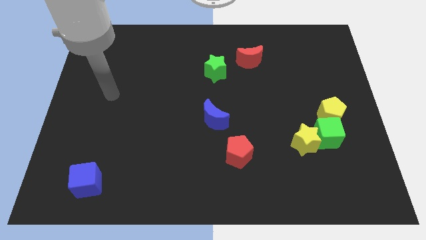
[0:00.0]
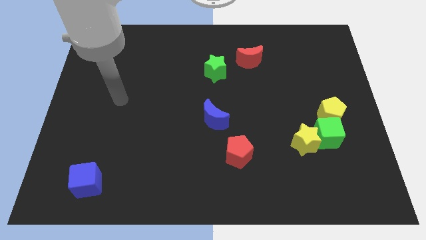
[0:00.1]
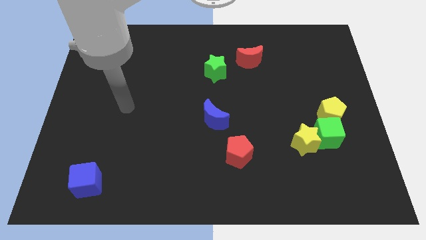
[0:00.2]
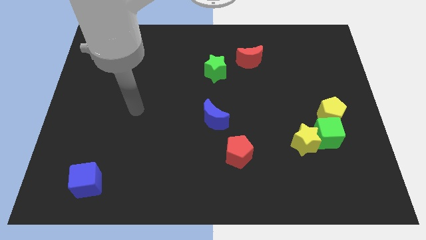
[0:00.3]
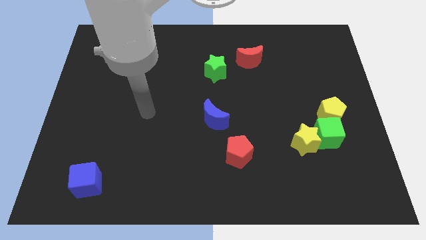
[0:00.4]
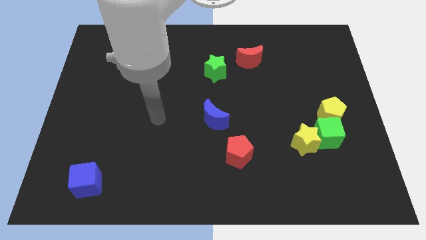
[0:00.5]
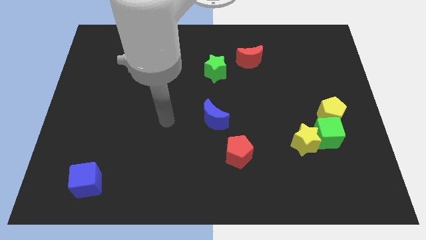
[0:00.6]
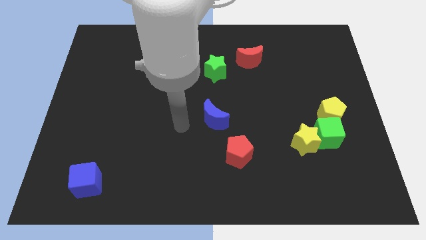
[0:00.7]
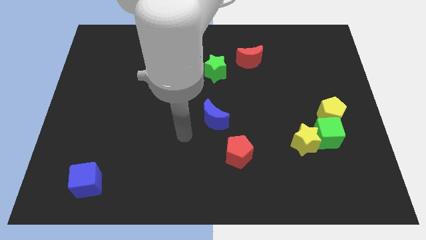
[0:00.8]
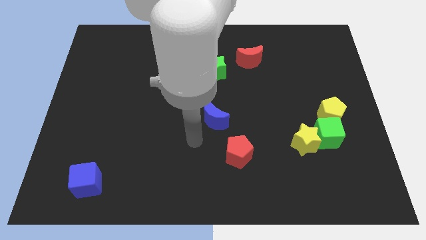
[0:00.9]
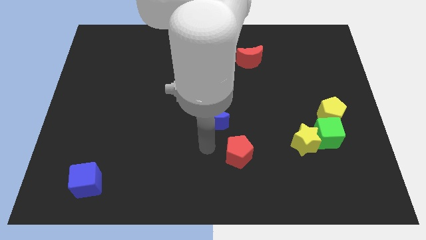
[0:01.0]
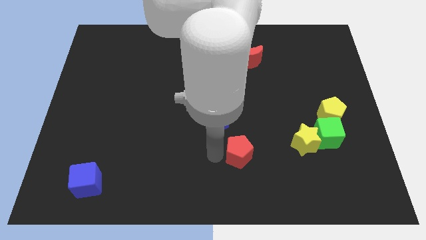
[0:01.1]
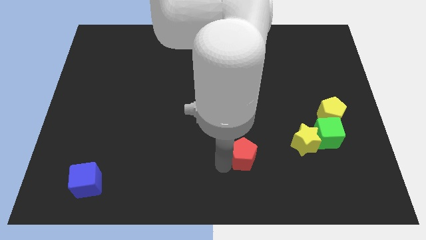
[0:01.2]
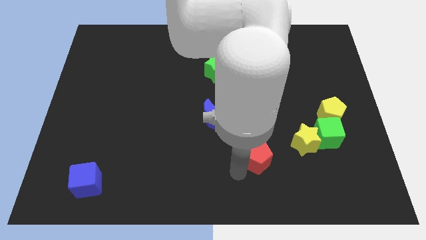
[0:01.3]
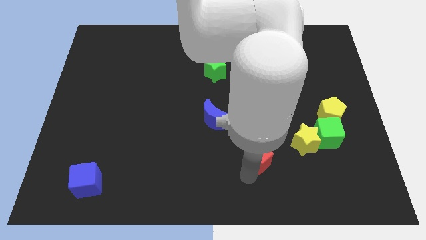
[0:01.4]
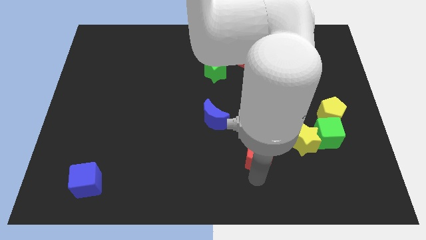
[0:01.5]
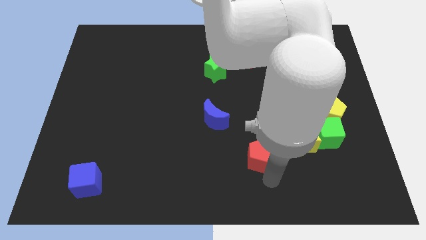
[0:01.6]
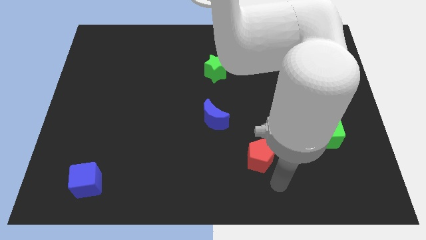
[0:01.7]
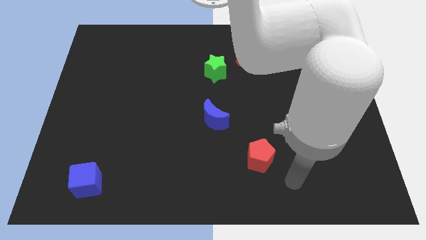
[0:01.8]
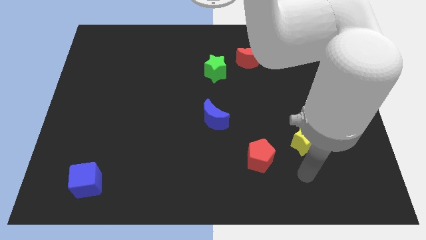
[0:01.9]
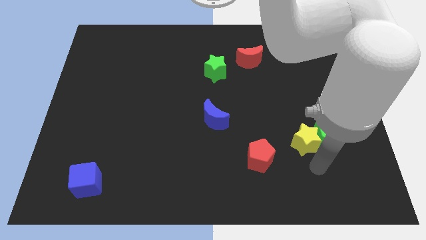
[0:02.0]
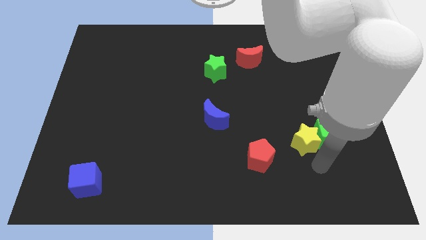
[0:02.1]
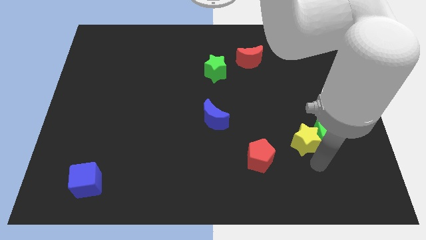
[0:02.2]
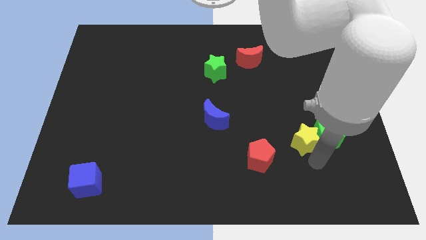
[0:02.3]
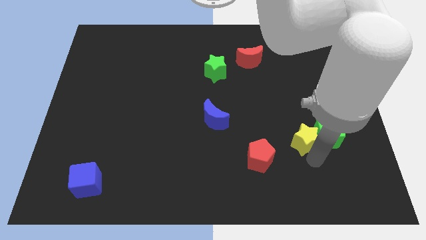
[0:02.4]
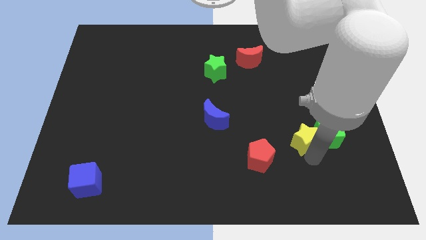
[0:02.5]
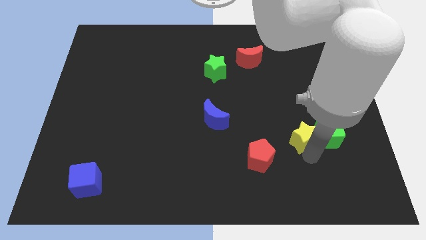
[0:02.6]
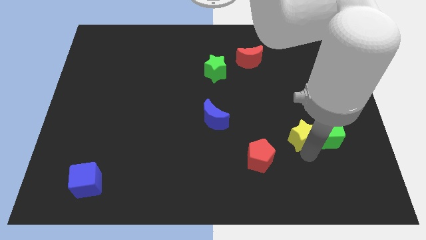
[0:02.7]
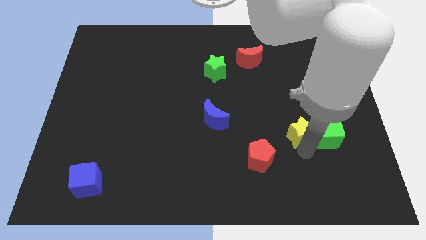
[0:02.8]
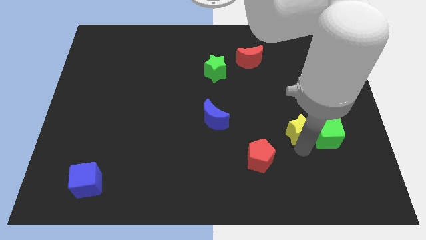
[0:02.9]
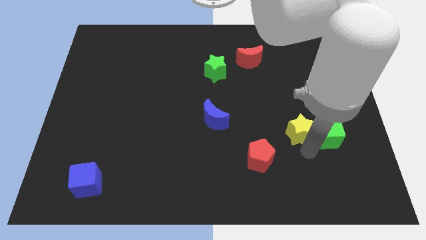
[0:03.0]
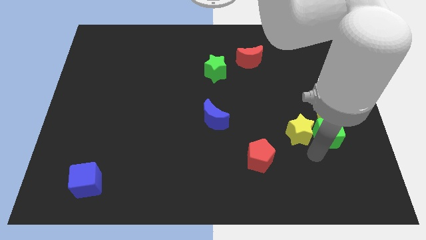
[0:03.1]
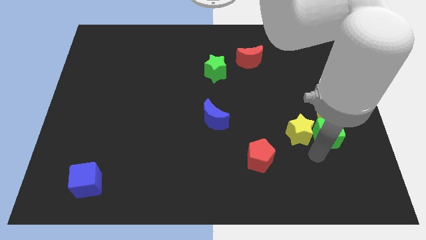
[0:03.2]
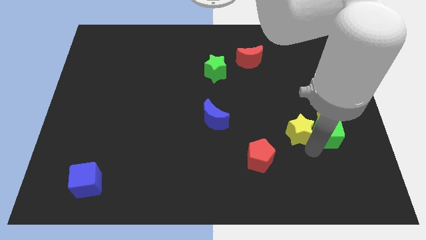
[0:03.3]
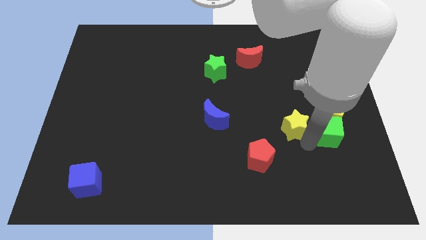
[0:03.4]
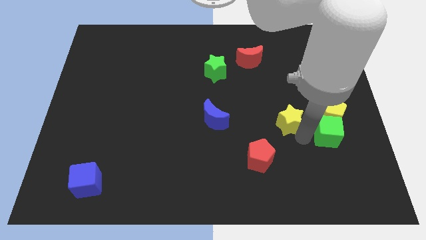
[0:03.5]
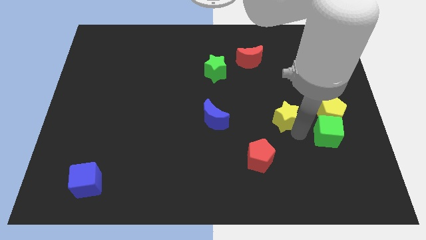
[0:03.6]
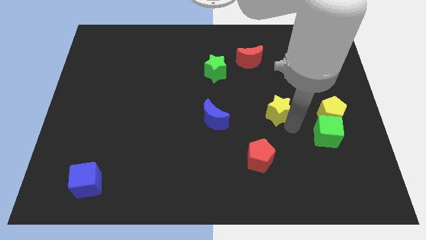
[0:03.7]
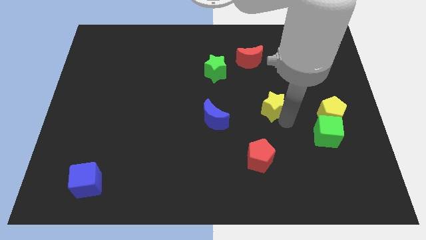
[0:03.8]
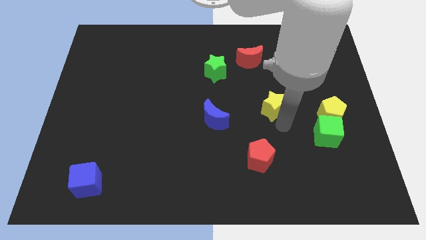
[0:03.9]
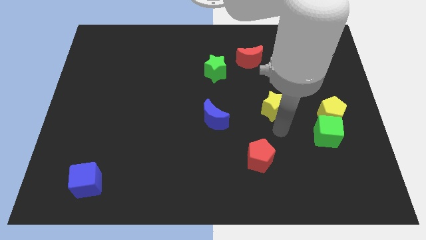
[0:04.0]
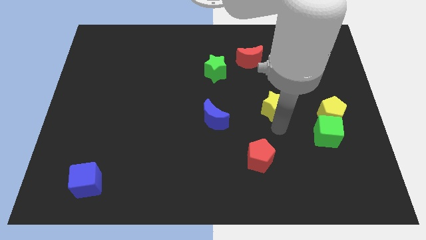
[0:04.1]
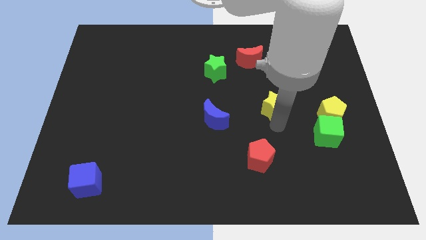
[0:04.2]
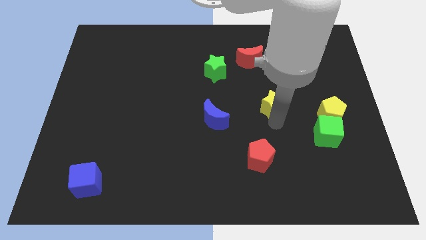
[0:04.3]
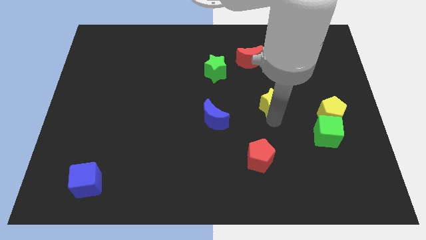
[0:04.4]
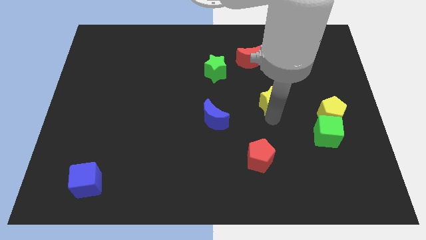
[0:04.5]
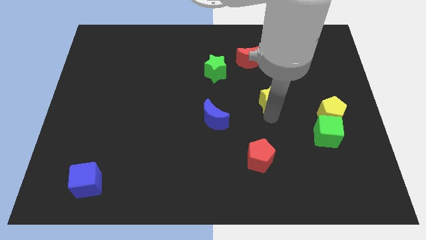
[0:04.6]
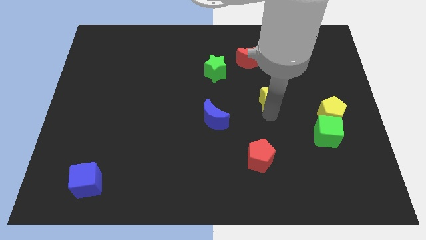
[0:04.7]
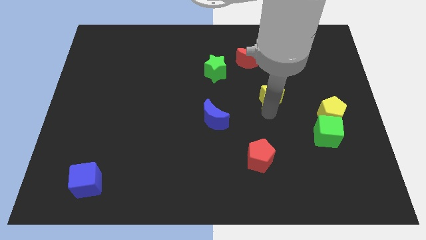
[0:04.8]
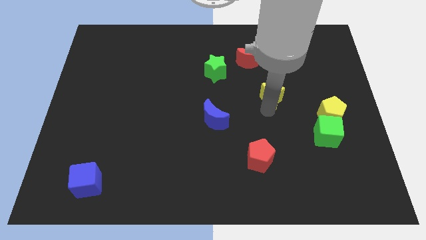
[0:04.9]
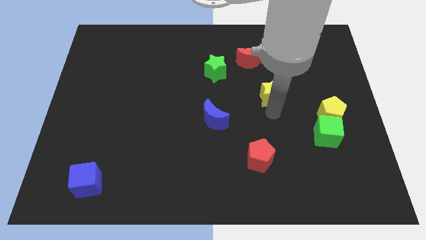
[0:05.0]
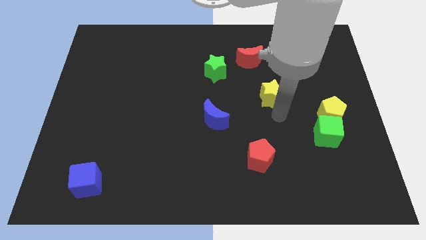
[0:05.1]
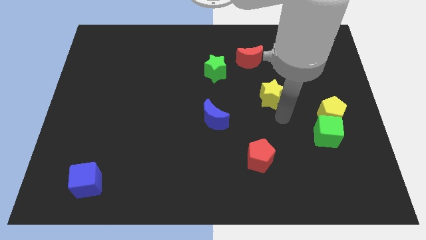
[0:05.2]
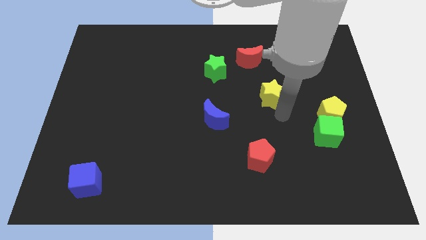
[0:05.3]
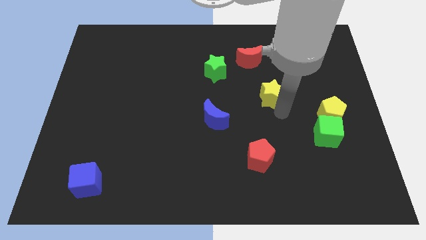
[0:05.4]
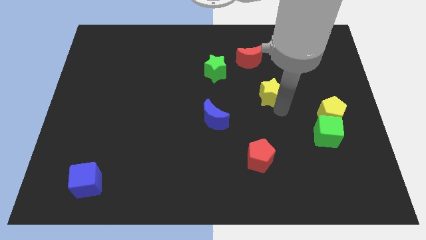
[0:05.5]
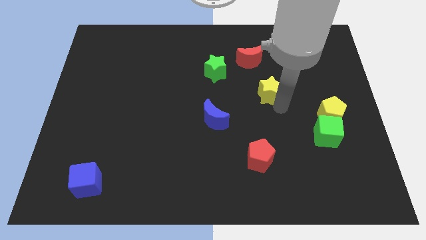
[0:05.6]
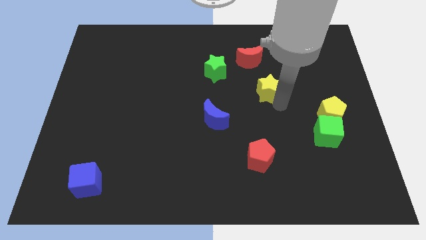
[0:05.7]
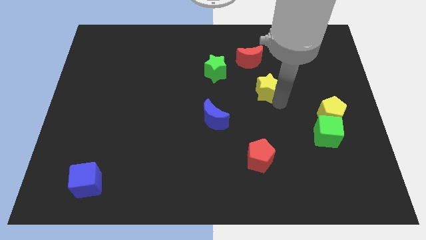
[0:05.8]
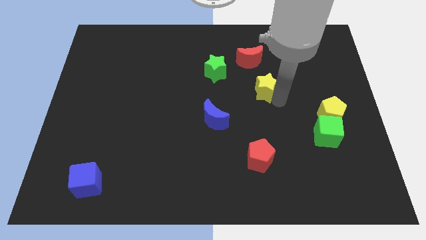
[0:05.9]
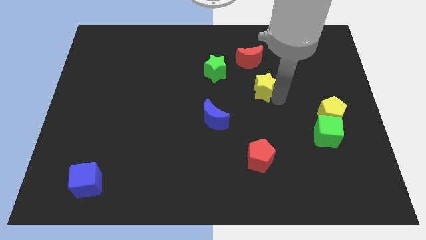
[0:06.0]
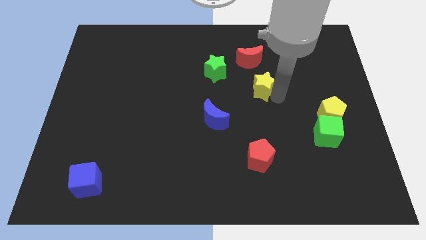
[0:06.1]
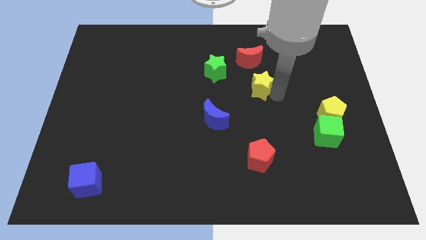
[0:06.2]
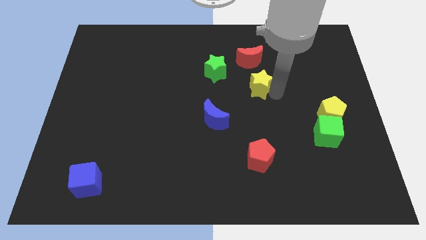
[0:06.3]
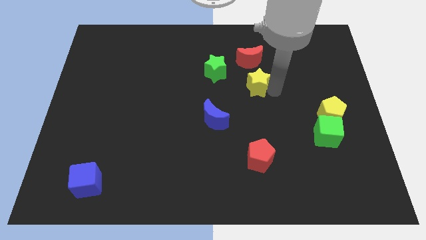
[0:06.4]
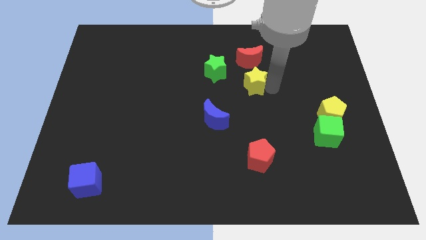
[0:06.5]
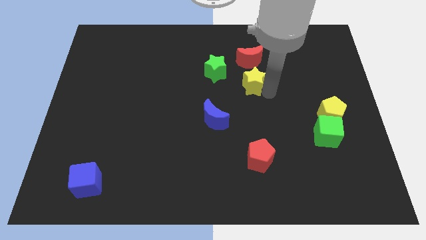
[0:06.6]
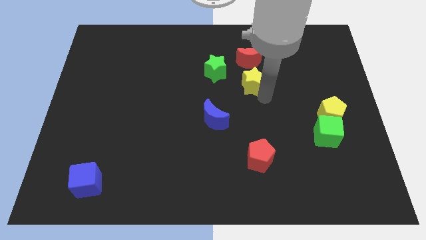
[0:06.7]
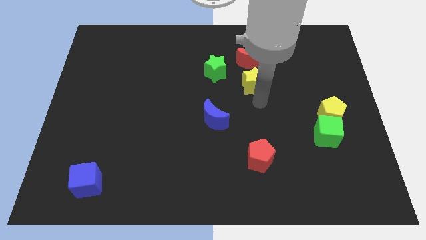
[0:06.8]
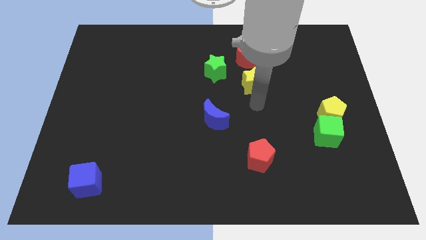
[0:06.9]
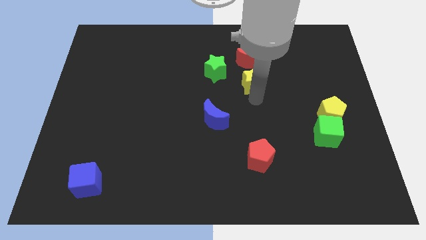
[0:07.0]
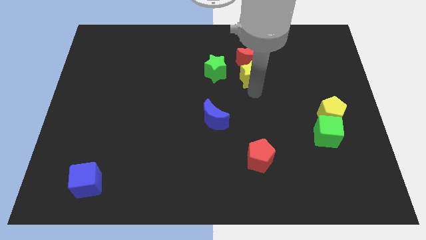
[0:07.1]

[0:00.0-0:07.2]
move the yellow star towards the red moon
